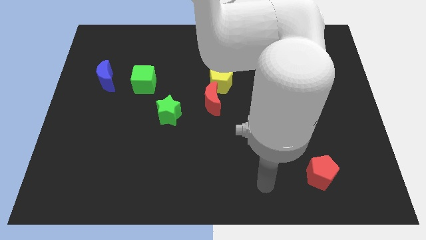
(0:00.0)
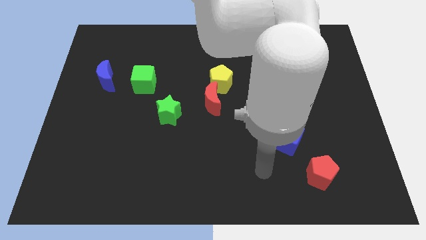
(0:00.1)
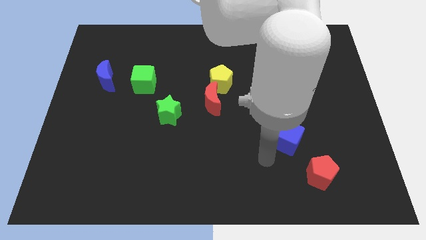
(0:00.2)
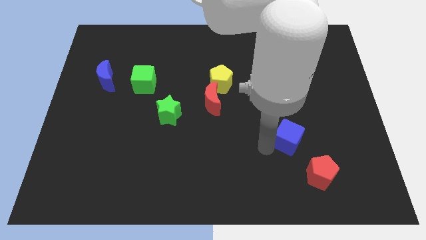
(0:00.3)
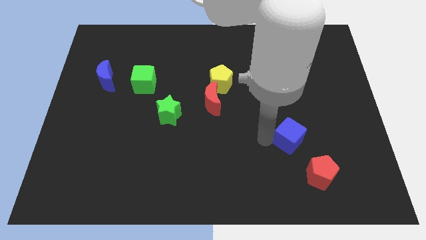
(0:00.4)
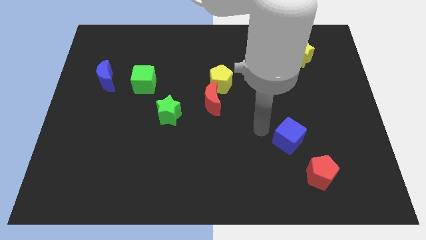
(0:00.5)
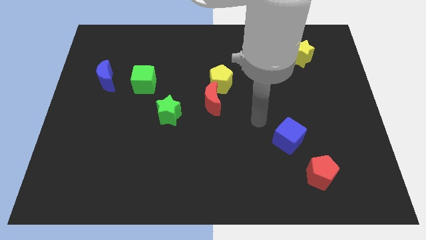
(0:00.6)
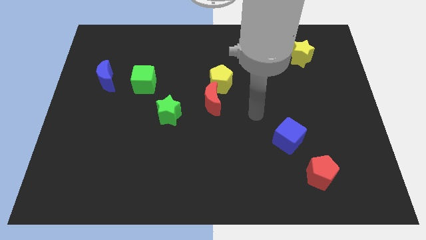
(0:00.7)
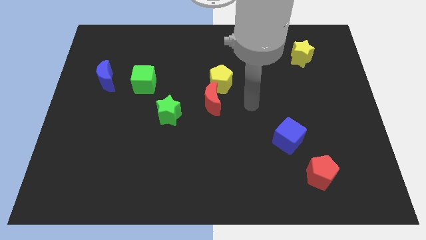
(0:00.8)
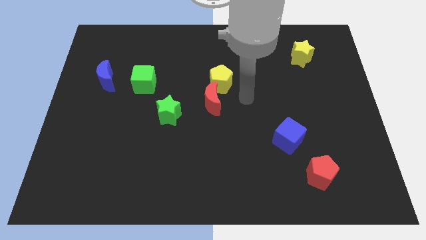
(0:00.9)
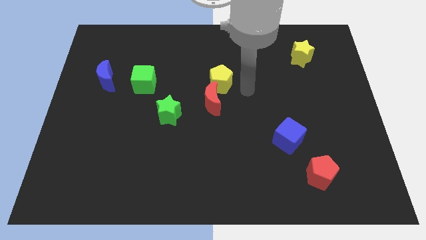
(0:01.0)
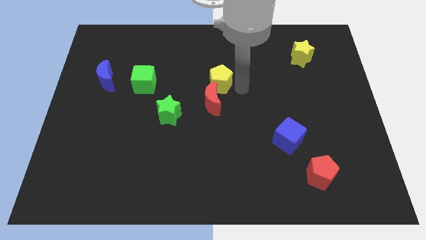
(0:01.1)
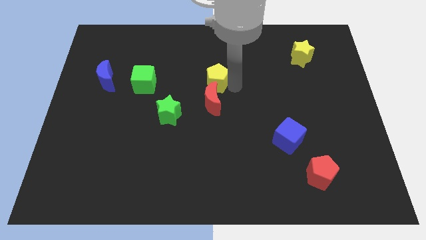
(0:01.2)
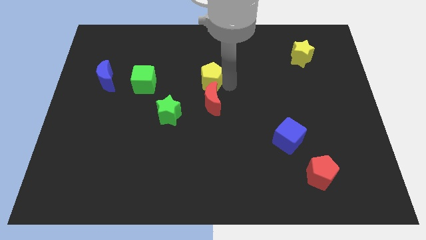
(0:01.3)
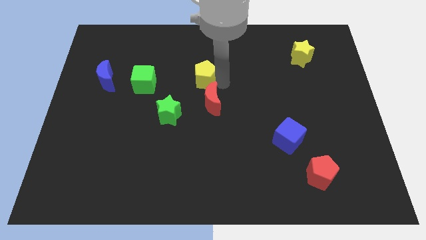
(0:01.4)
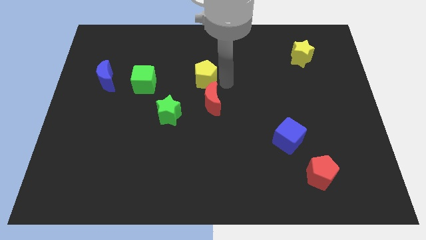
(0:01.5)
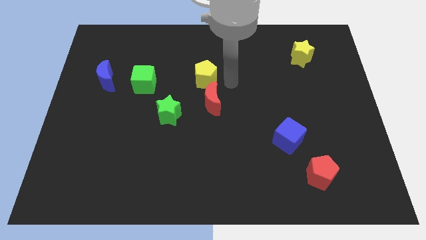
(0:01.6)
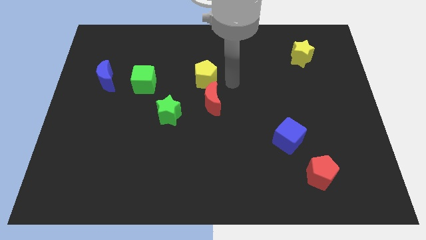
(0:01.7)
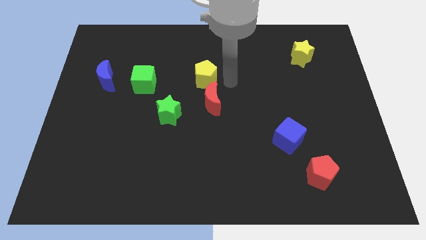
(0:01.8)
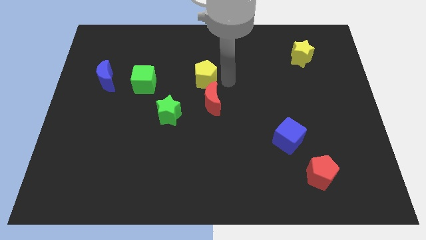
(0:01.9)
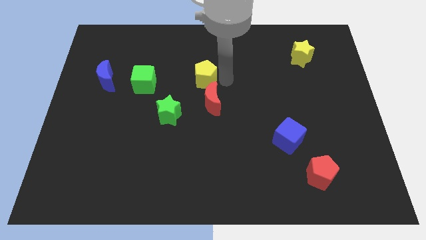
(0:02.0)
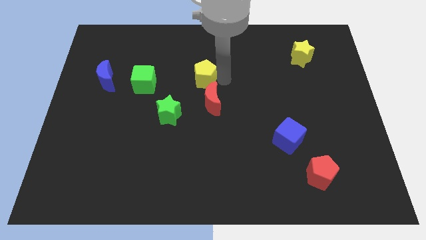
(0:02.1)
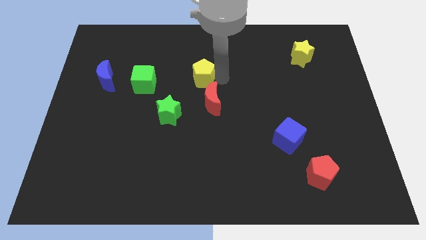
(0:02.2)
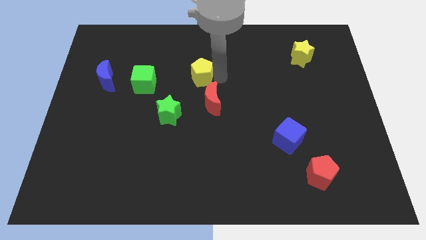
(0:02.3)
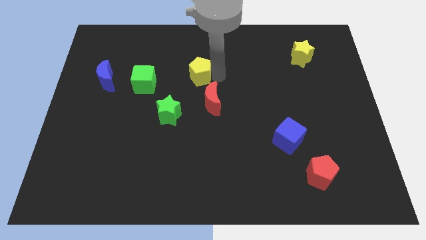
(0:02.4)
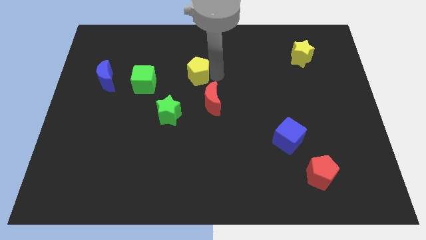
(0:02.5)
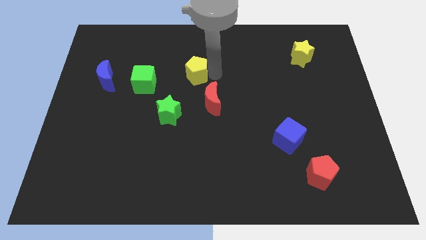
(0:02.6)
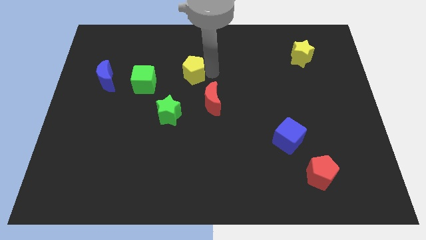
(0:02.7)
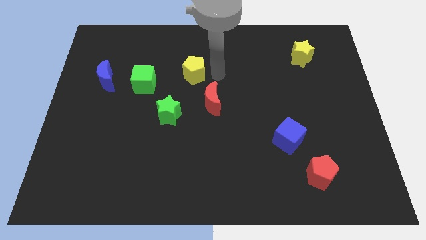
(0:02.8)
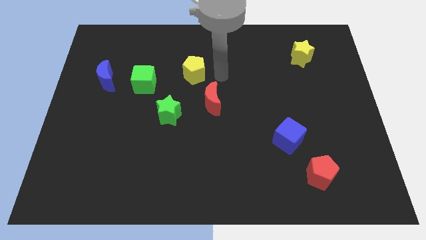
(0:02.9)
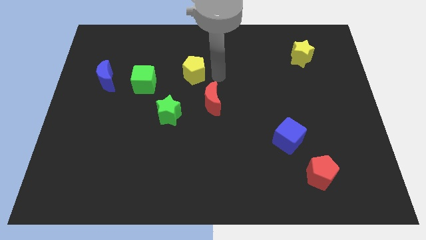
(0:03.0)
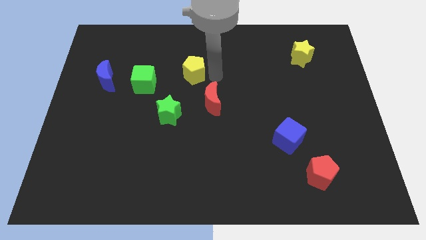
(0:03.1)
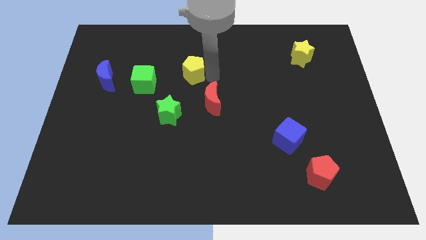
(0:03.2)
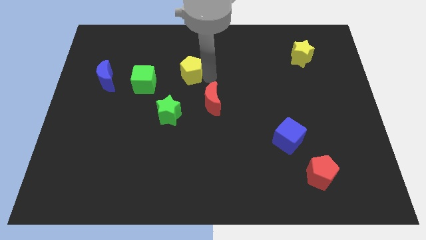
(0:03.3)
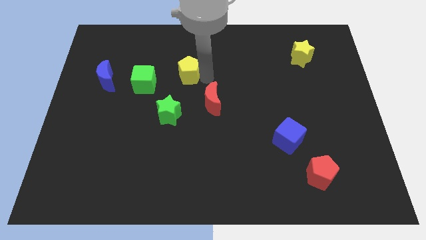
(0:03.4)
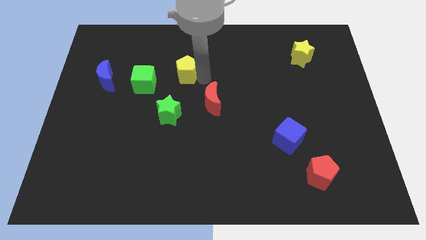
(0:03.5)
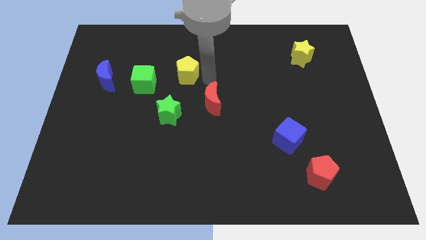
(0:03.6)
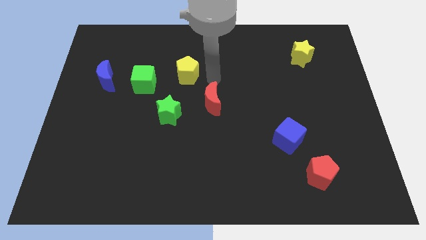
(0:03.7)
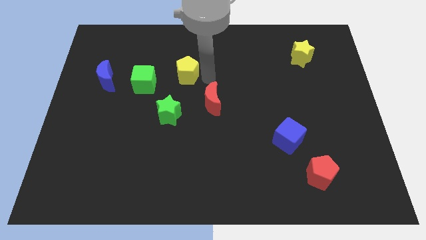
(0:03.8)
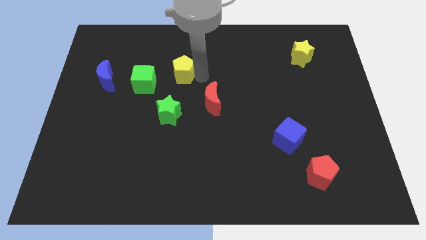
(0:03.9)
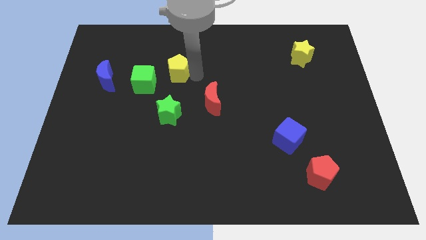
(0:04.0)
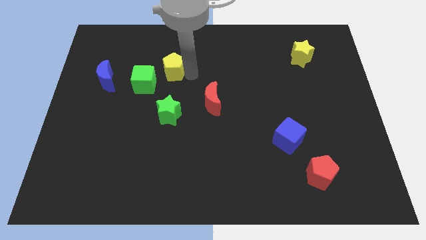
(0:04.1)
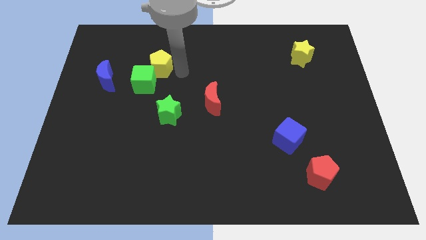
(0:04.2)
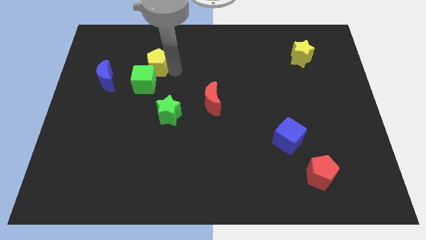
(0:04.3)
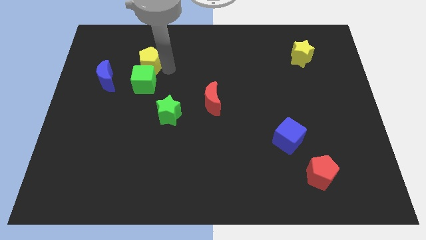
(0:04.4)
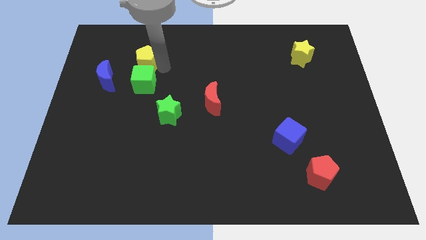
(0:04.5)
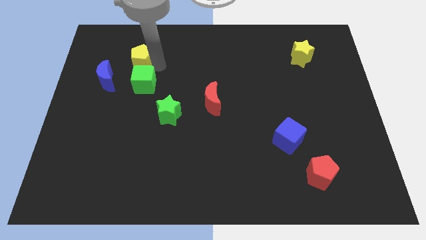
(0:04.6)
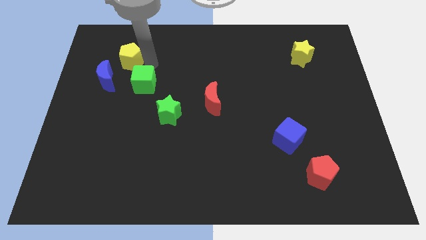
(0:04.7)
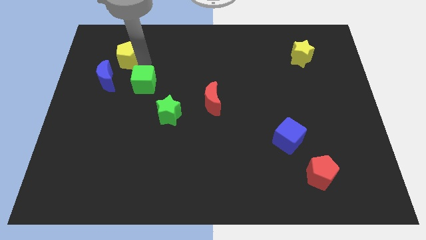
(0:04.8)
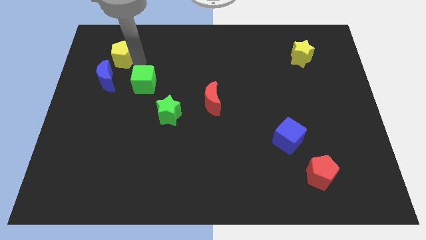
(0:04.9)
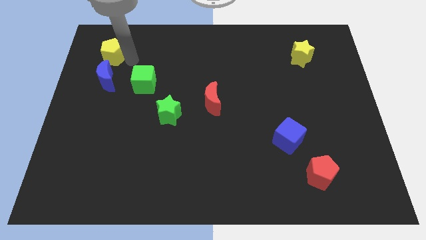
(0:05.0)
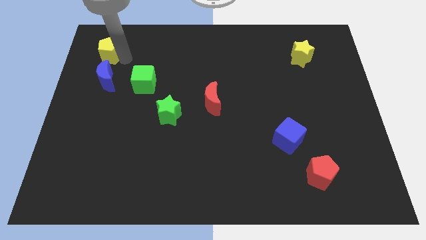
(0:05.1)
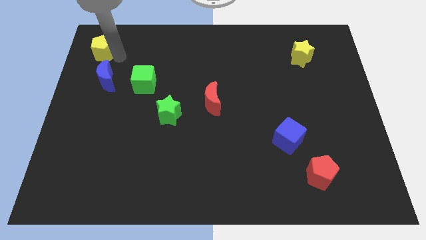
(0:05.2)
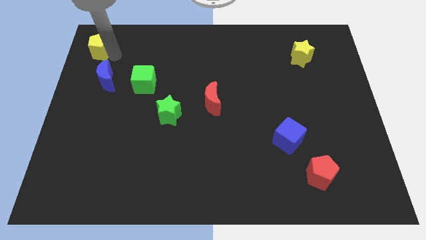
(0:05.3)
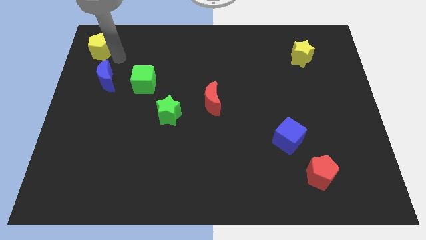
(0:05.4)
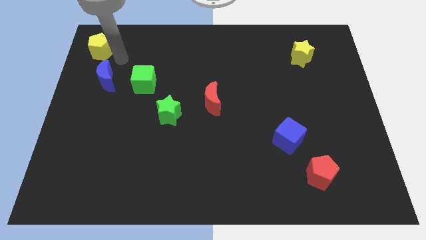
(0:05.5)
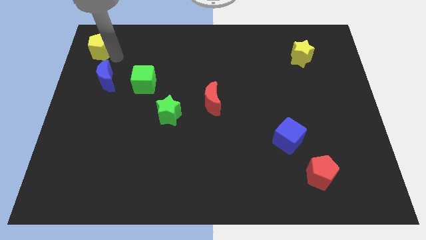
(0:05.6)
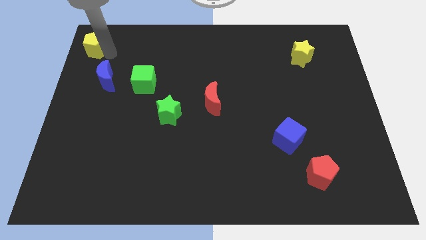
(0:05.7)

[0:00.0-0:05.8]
push the yellow pentagon to the upper left corner

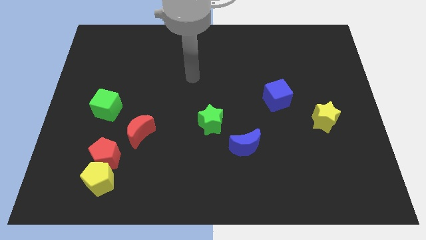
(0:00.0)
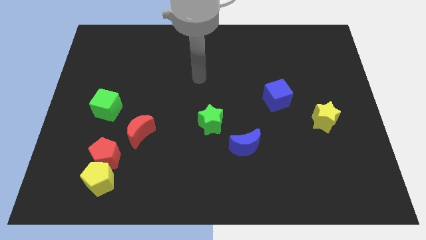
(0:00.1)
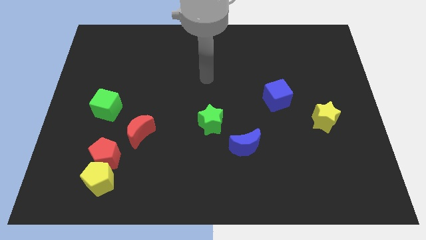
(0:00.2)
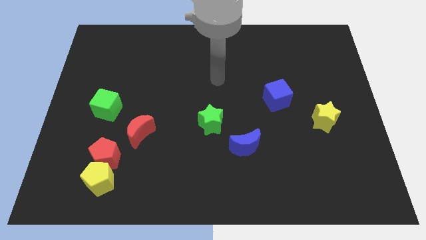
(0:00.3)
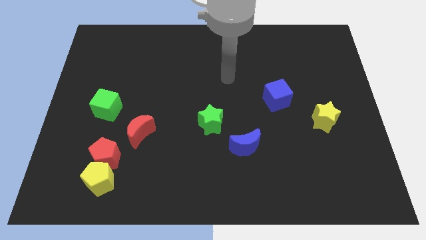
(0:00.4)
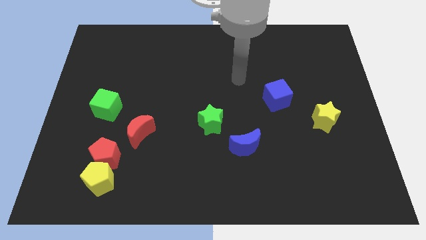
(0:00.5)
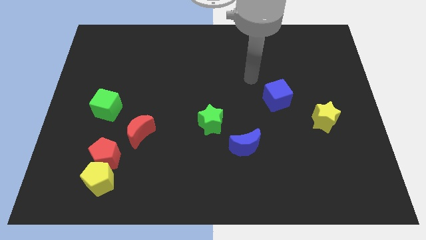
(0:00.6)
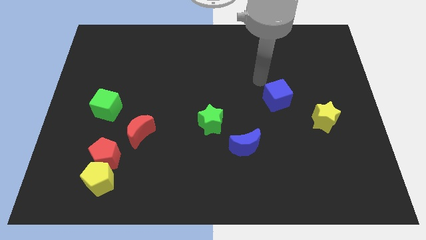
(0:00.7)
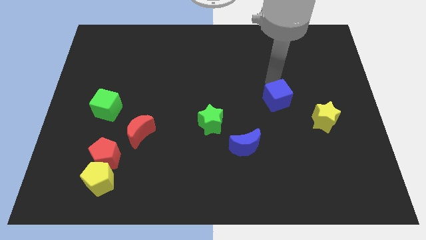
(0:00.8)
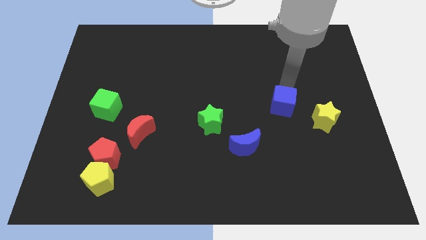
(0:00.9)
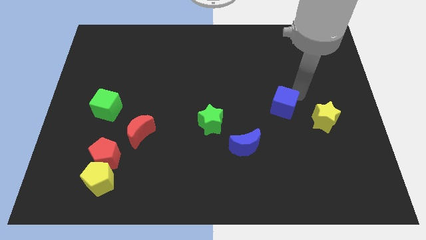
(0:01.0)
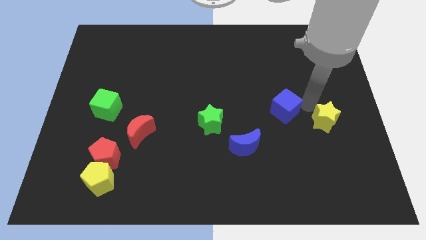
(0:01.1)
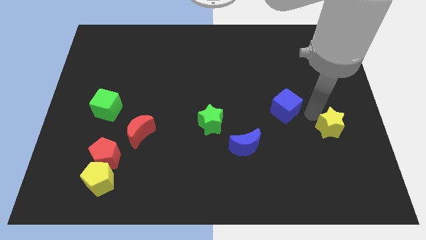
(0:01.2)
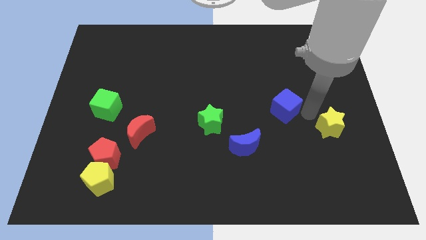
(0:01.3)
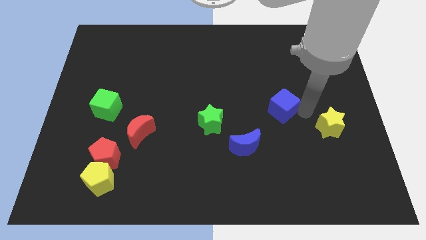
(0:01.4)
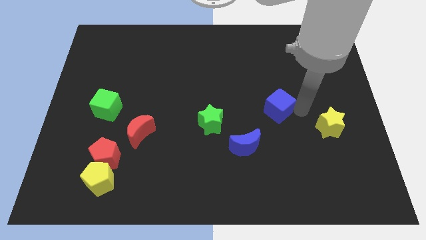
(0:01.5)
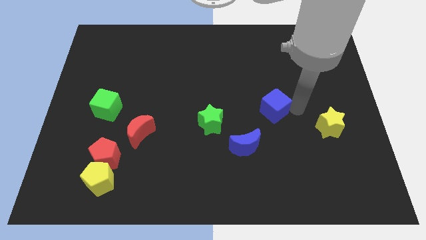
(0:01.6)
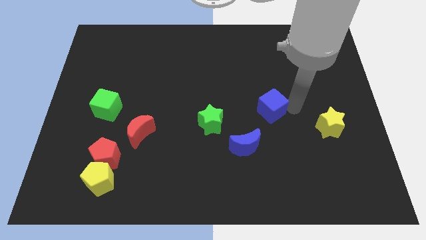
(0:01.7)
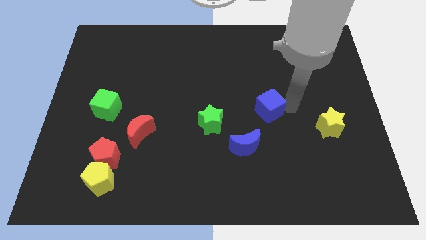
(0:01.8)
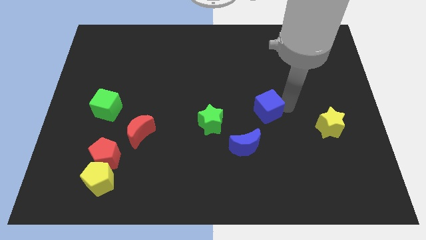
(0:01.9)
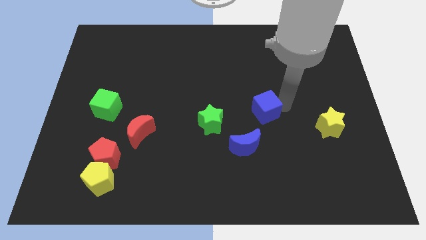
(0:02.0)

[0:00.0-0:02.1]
slide the blue cube to the middle
